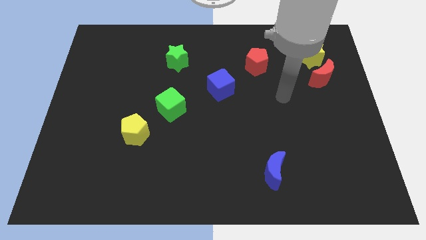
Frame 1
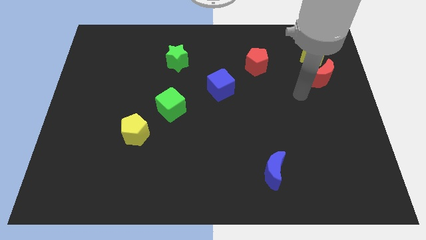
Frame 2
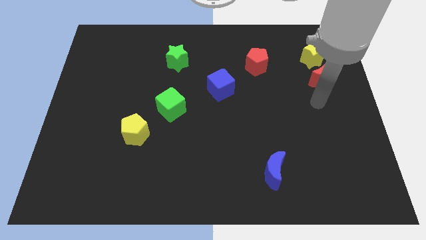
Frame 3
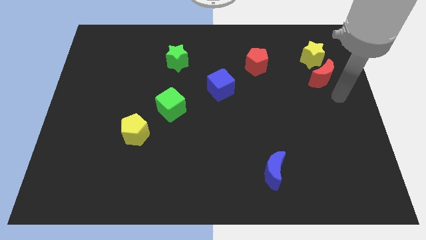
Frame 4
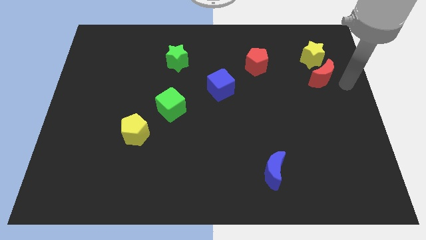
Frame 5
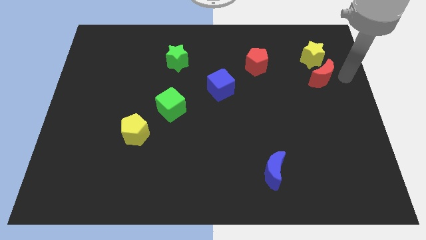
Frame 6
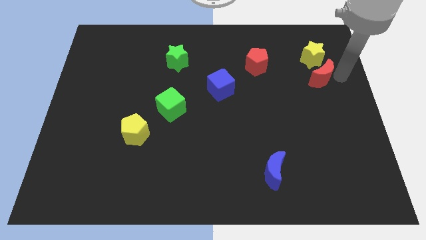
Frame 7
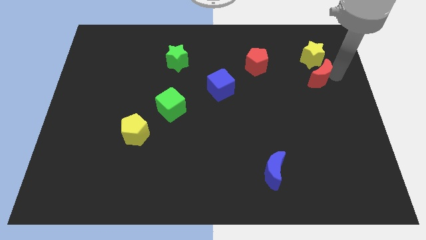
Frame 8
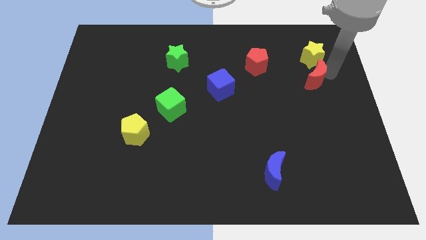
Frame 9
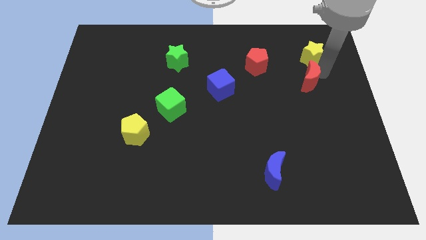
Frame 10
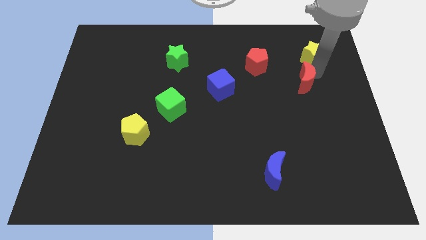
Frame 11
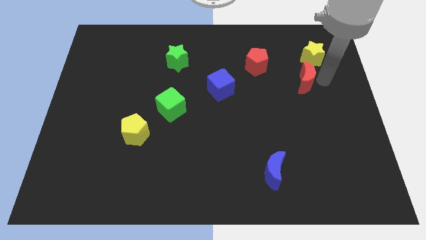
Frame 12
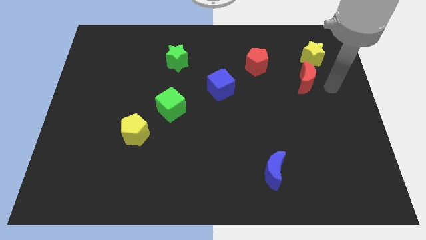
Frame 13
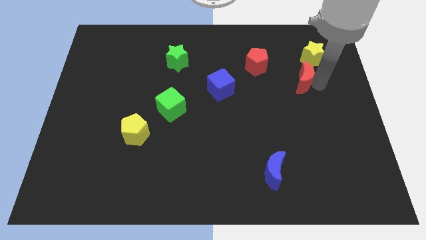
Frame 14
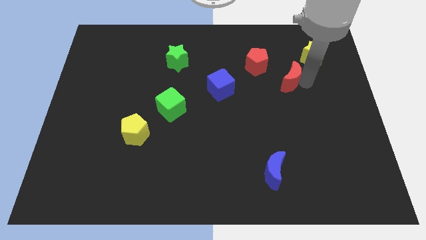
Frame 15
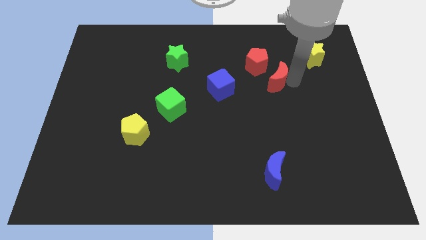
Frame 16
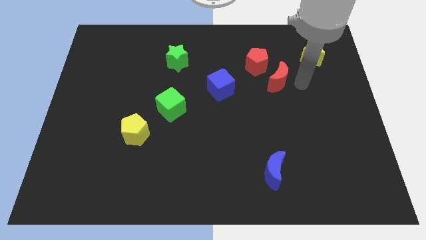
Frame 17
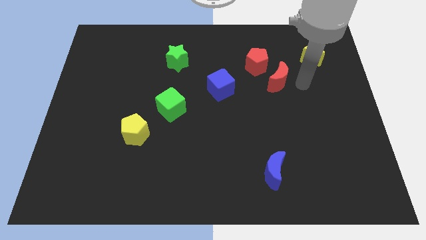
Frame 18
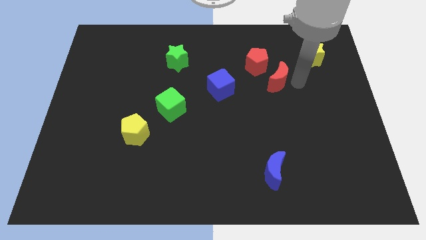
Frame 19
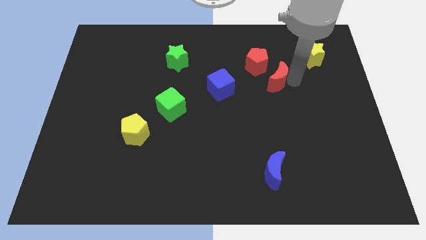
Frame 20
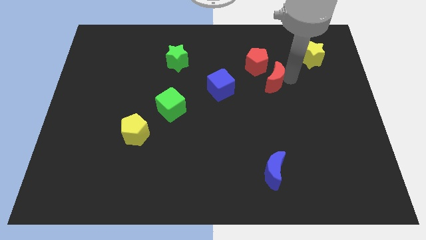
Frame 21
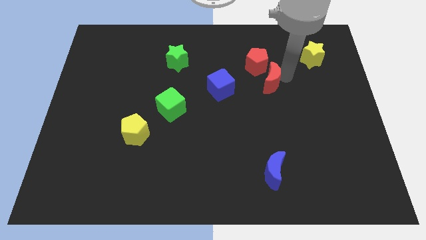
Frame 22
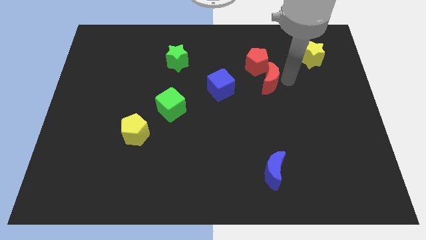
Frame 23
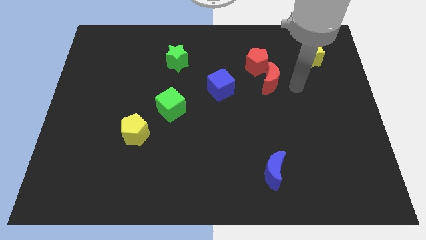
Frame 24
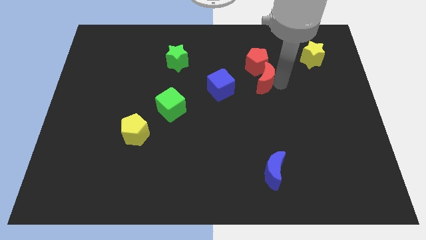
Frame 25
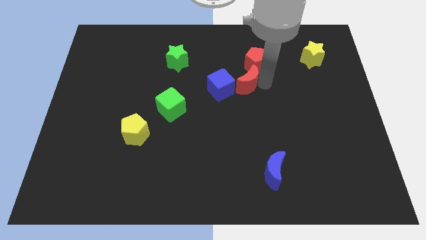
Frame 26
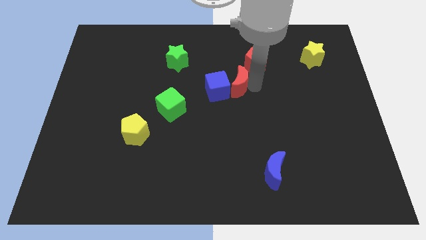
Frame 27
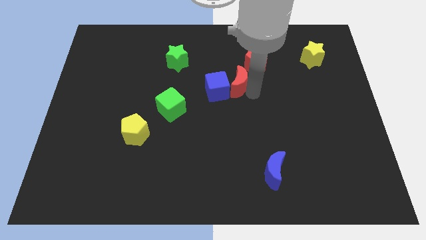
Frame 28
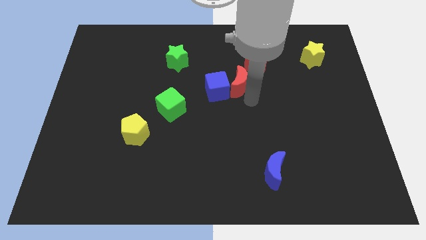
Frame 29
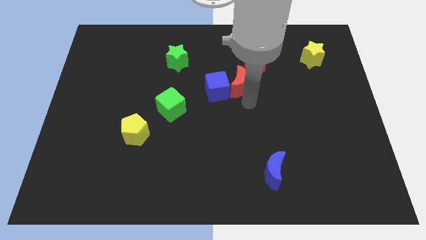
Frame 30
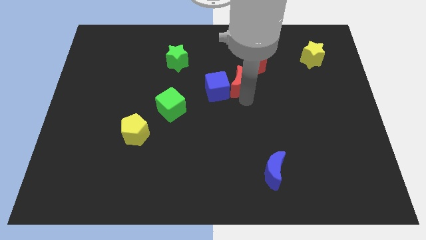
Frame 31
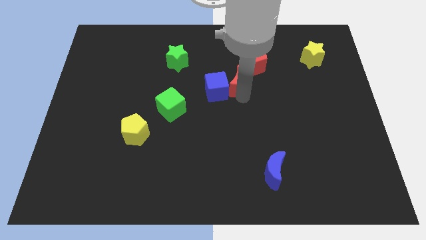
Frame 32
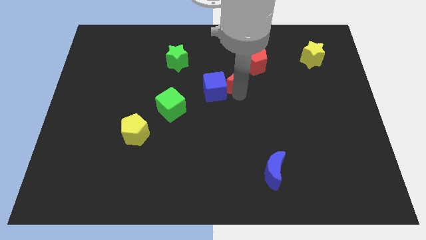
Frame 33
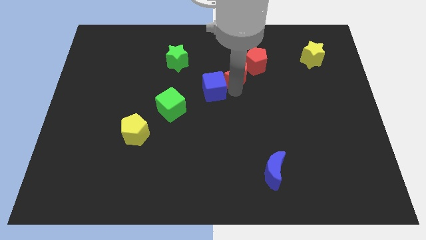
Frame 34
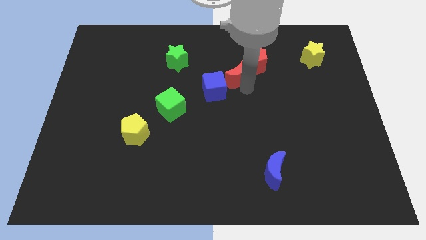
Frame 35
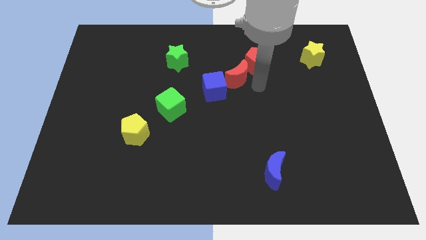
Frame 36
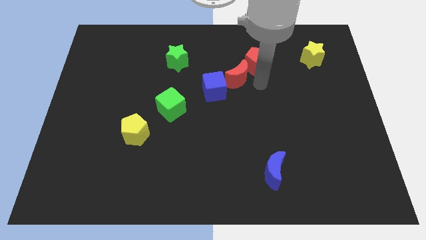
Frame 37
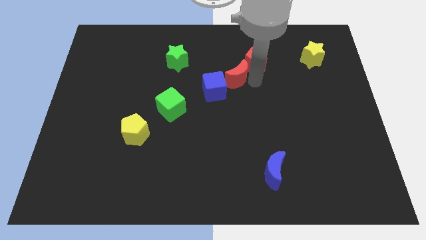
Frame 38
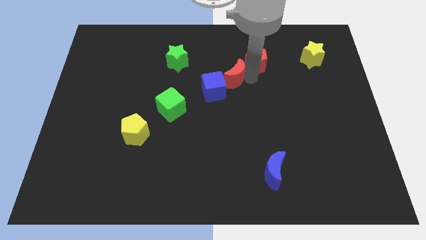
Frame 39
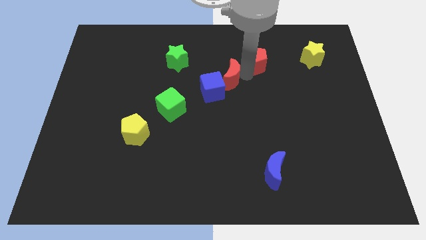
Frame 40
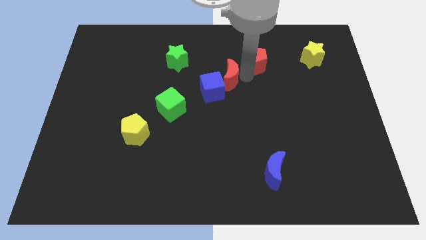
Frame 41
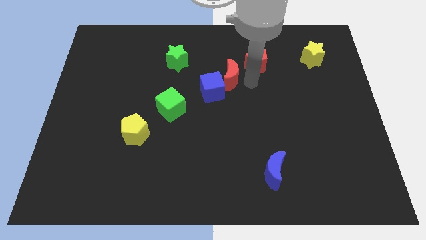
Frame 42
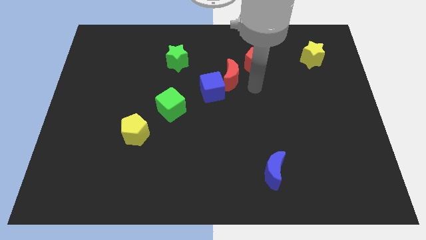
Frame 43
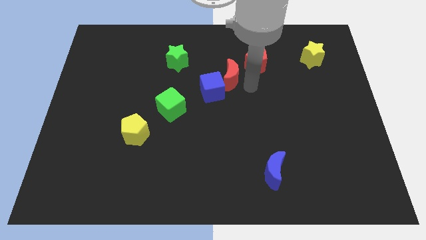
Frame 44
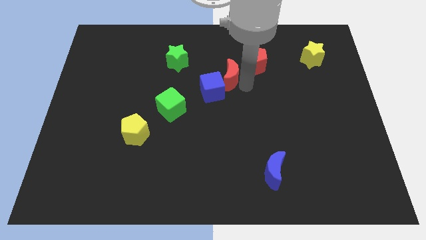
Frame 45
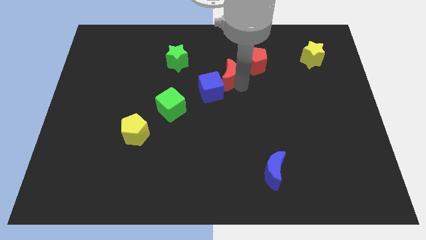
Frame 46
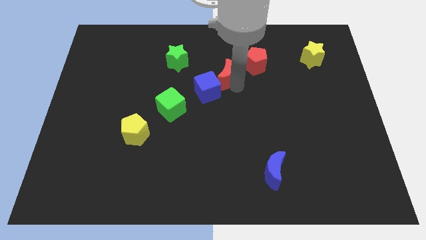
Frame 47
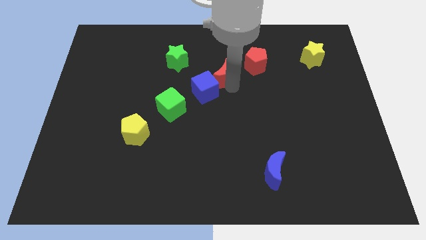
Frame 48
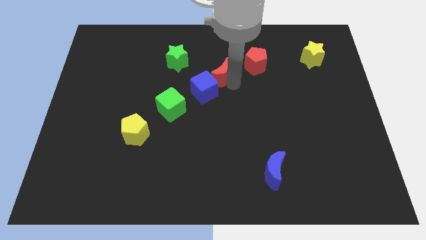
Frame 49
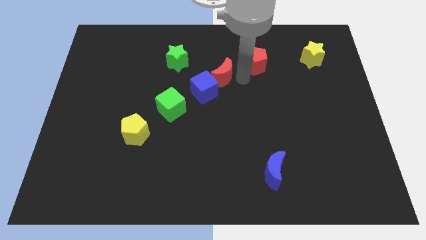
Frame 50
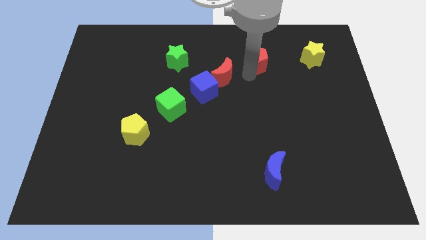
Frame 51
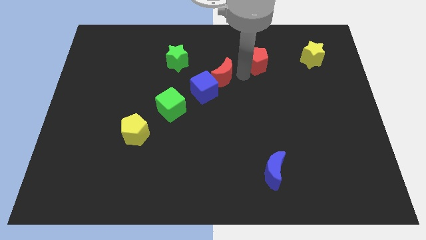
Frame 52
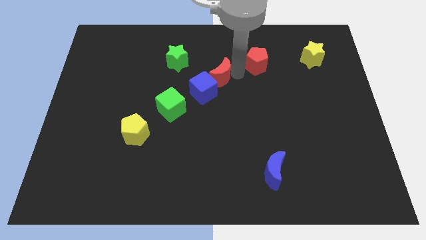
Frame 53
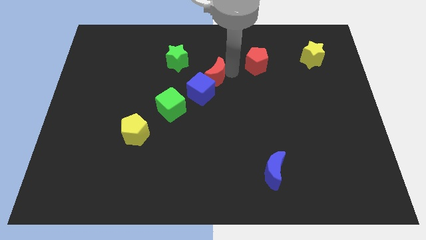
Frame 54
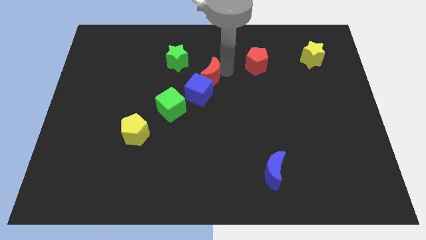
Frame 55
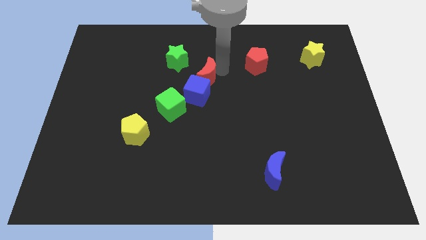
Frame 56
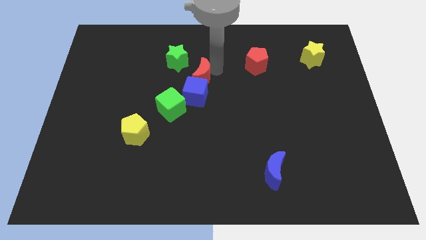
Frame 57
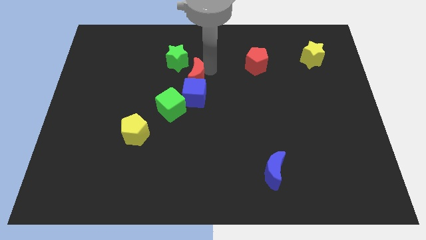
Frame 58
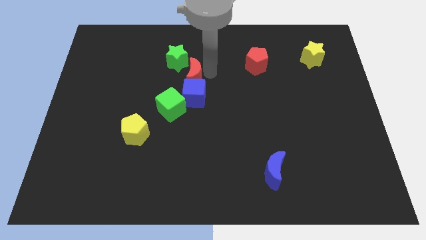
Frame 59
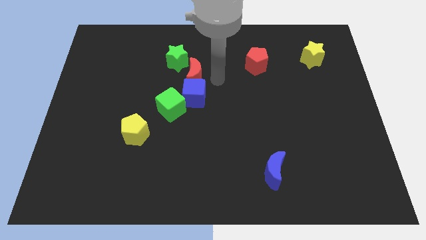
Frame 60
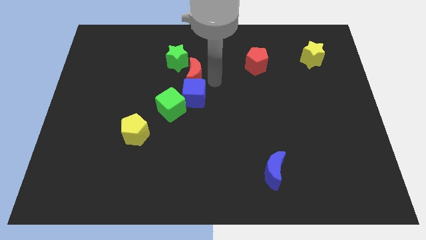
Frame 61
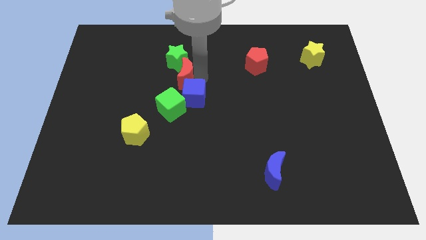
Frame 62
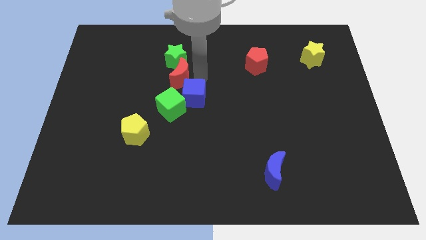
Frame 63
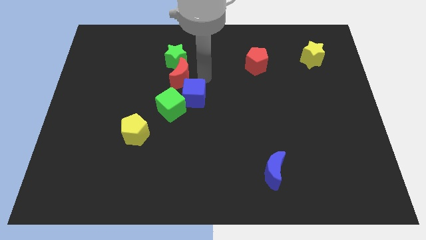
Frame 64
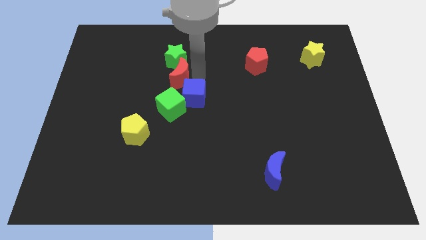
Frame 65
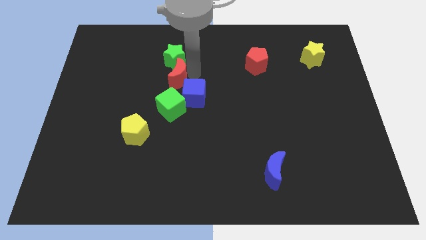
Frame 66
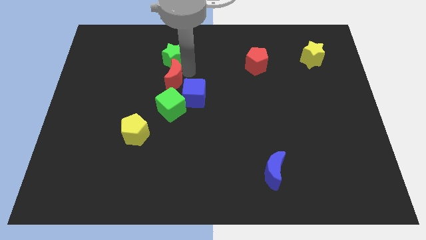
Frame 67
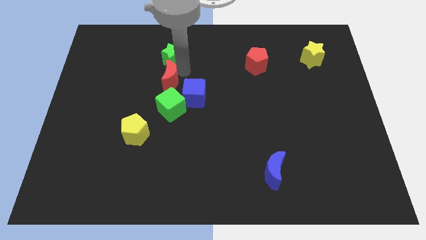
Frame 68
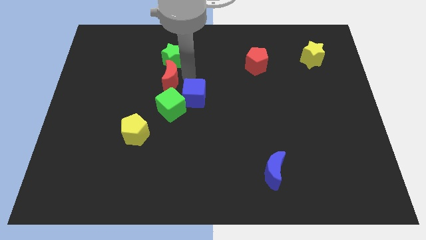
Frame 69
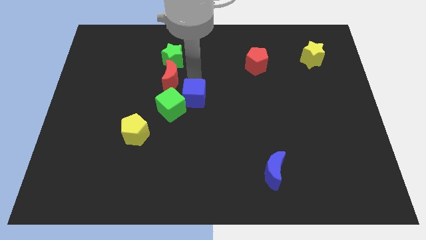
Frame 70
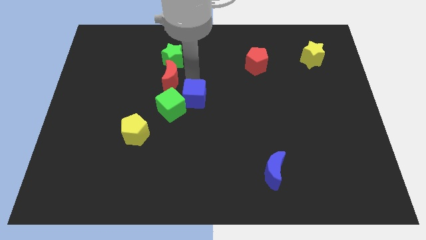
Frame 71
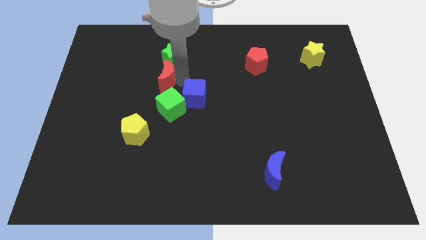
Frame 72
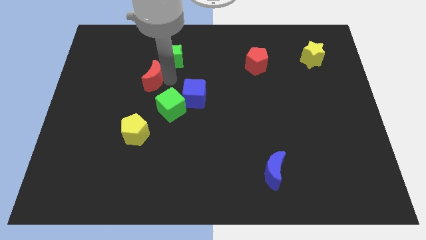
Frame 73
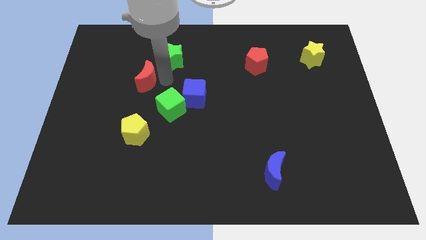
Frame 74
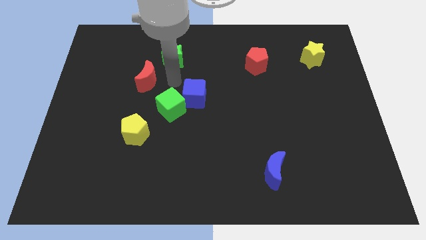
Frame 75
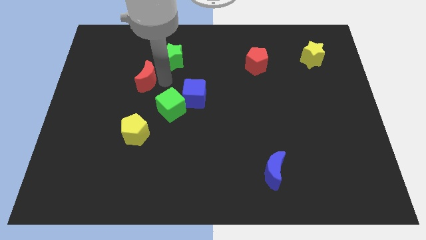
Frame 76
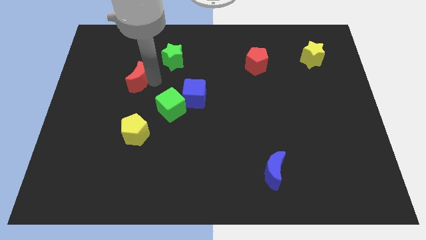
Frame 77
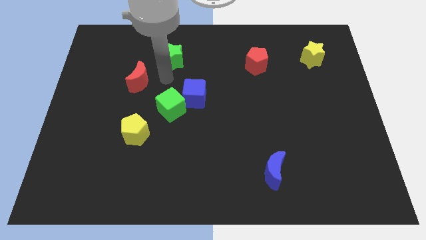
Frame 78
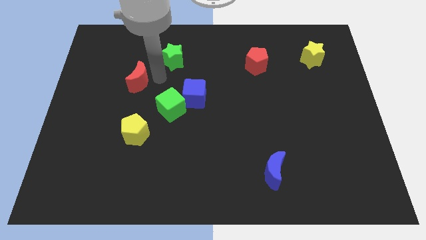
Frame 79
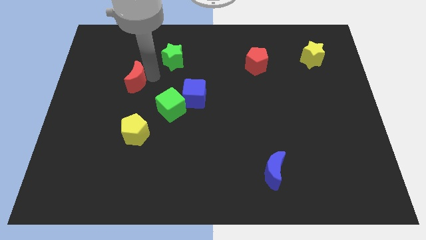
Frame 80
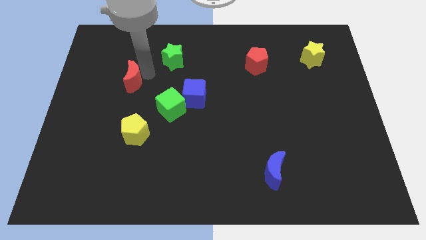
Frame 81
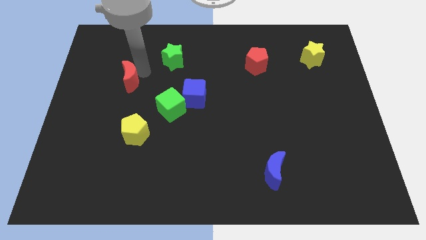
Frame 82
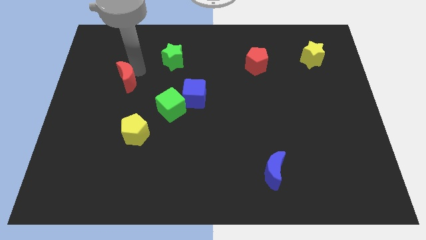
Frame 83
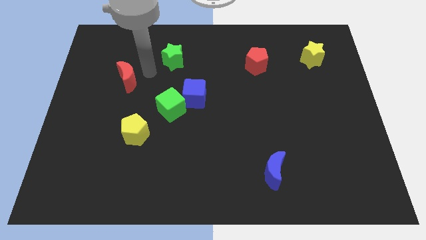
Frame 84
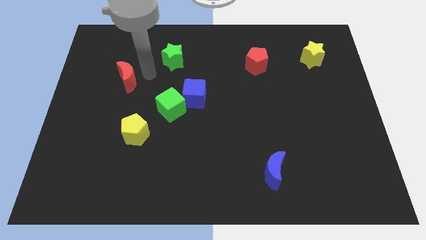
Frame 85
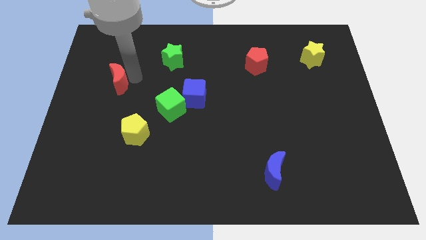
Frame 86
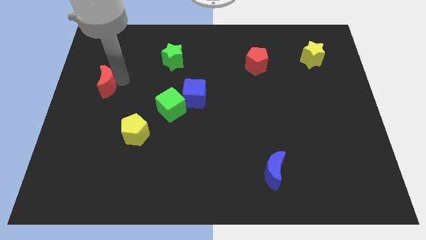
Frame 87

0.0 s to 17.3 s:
push the red moon to the left side of the board
